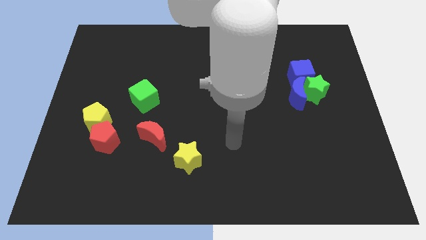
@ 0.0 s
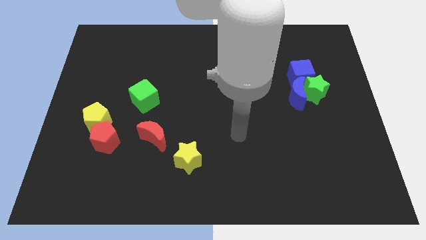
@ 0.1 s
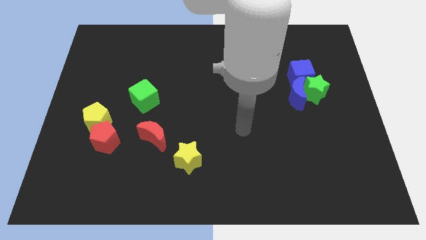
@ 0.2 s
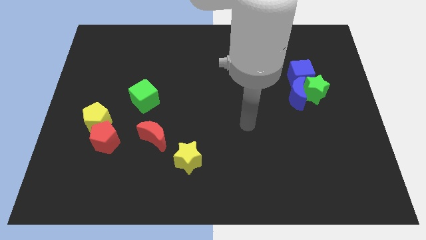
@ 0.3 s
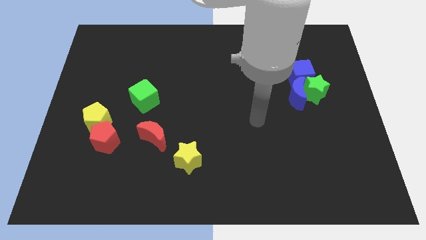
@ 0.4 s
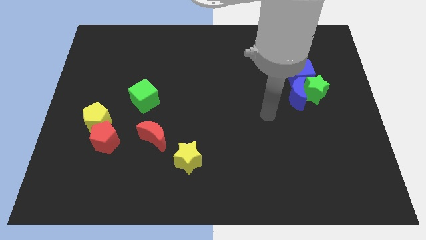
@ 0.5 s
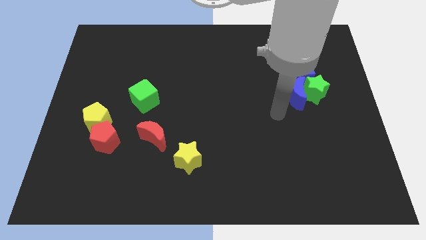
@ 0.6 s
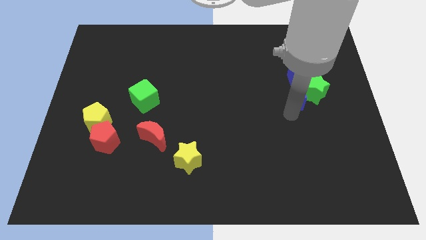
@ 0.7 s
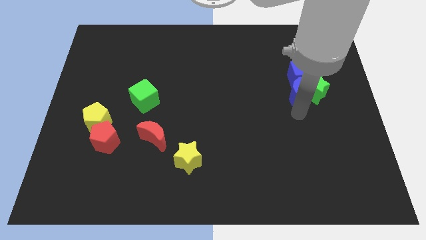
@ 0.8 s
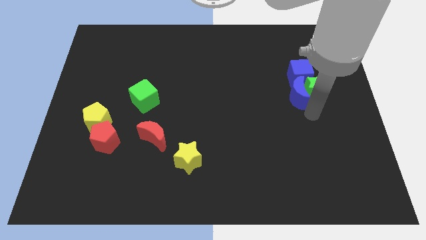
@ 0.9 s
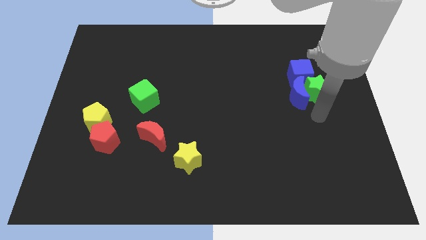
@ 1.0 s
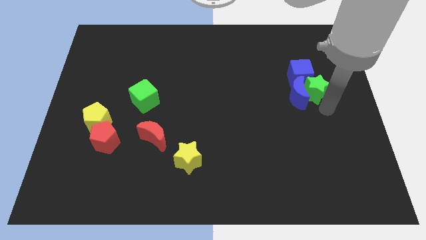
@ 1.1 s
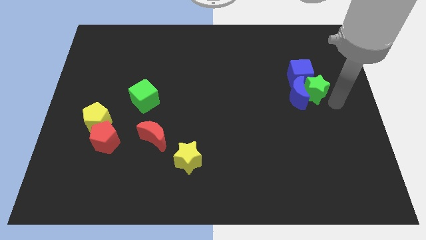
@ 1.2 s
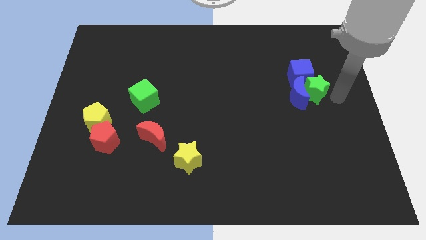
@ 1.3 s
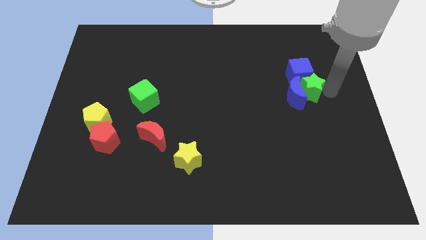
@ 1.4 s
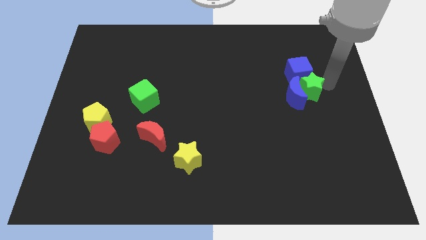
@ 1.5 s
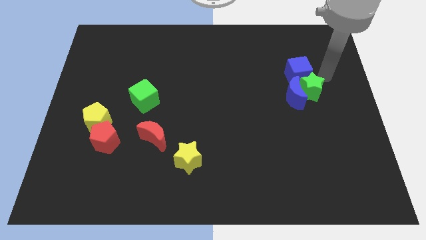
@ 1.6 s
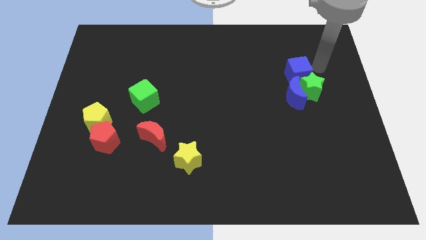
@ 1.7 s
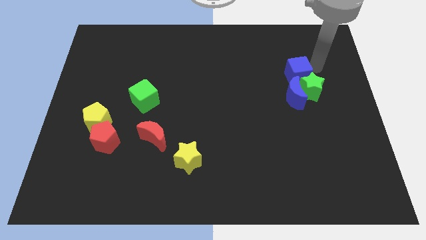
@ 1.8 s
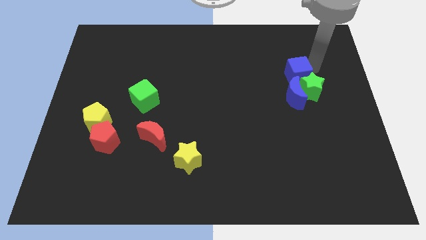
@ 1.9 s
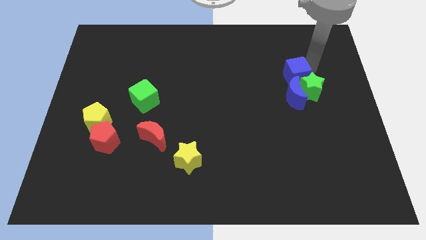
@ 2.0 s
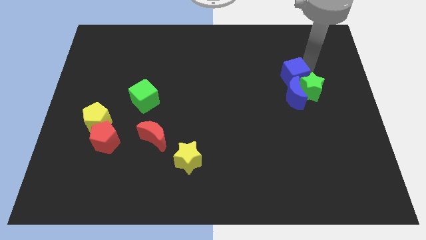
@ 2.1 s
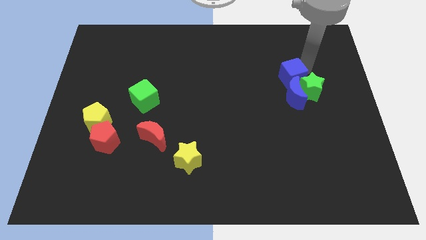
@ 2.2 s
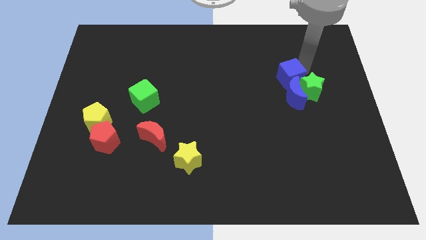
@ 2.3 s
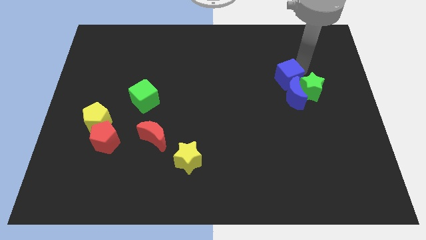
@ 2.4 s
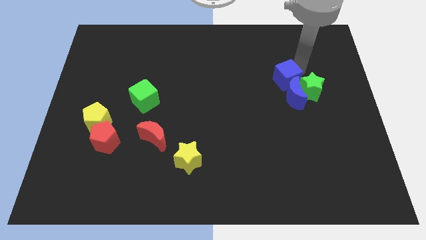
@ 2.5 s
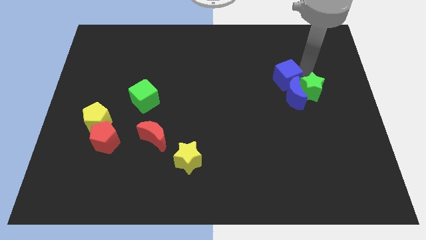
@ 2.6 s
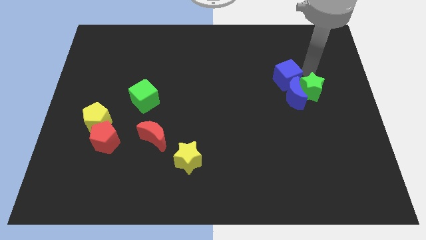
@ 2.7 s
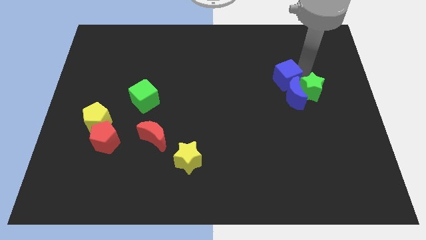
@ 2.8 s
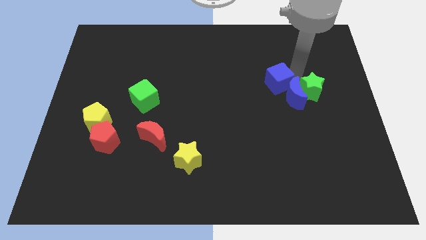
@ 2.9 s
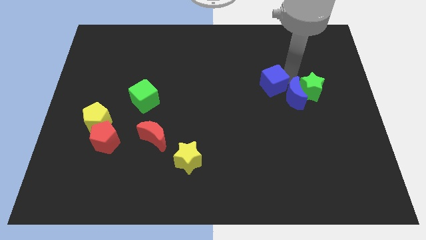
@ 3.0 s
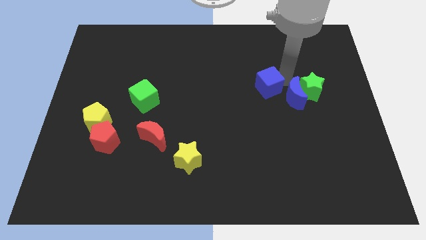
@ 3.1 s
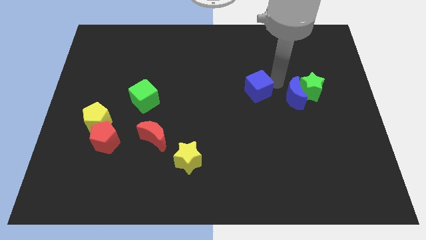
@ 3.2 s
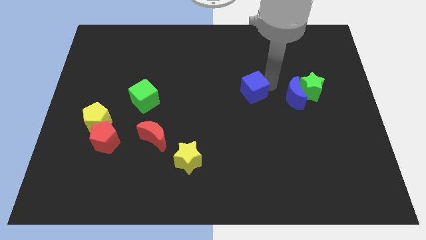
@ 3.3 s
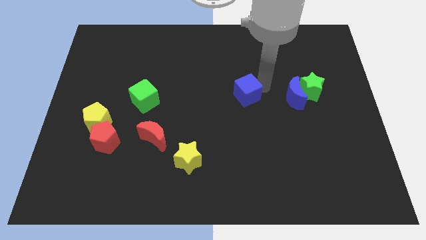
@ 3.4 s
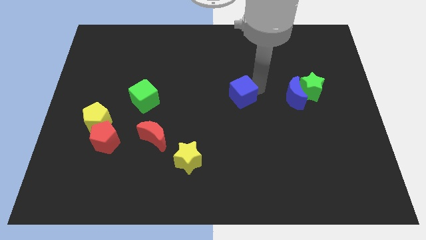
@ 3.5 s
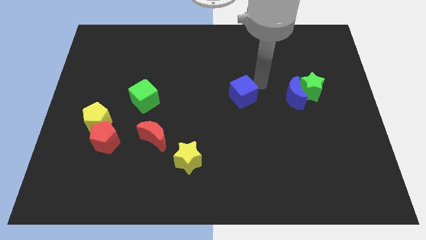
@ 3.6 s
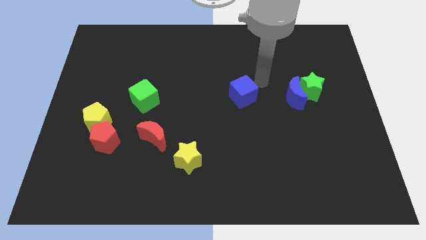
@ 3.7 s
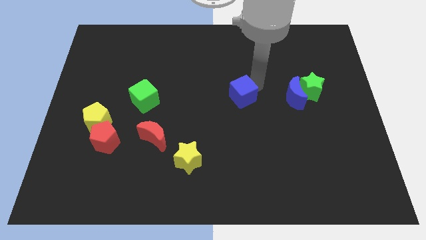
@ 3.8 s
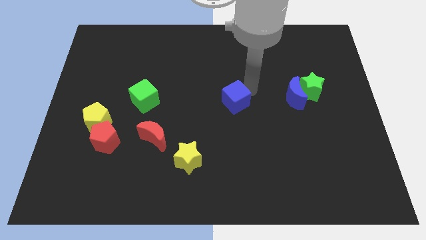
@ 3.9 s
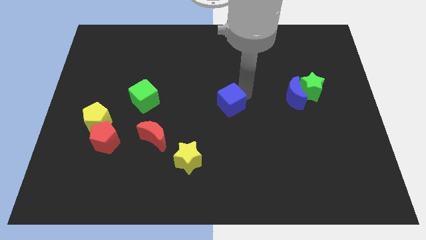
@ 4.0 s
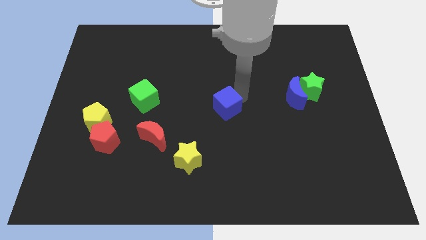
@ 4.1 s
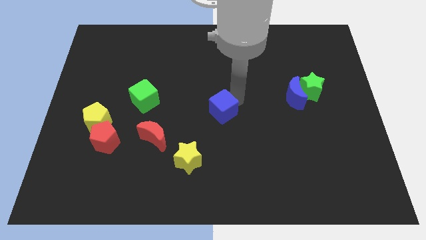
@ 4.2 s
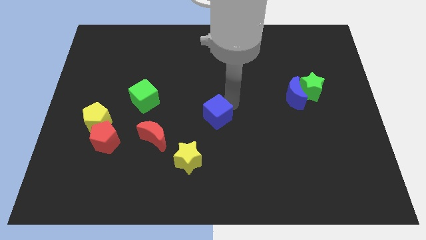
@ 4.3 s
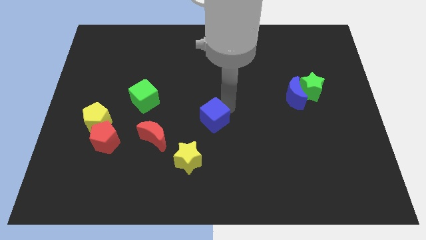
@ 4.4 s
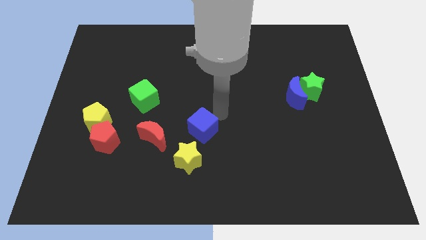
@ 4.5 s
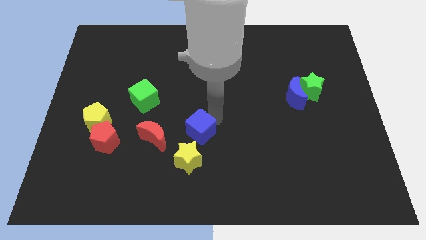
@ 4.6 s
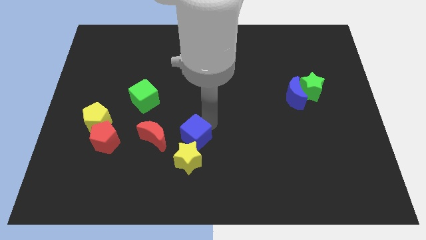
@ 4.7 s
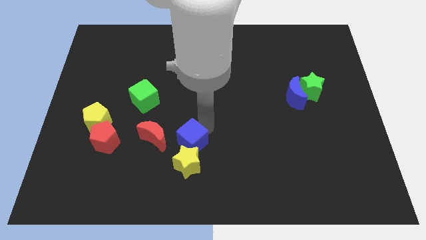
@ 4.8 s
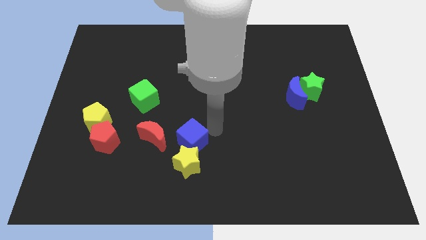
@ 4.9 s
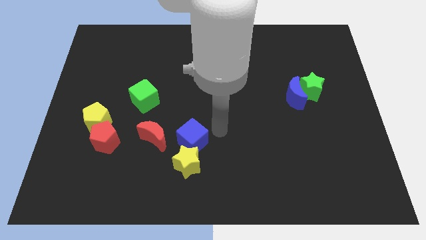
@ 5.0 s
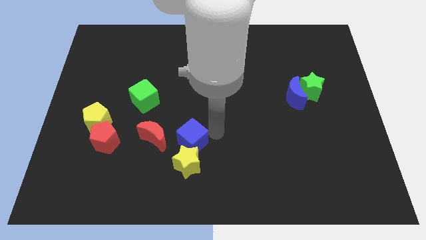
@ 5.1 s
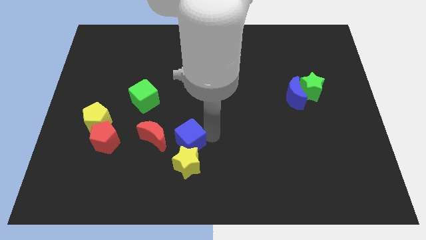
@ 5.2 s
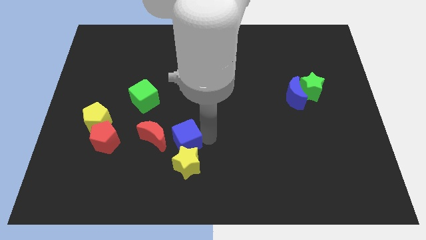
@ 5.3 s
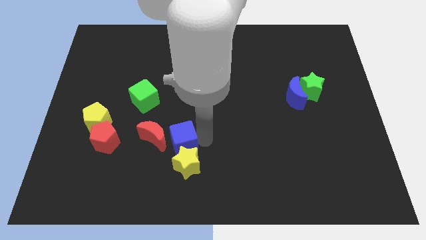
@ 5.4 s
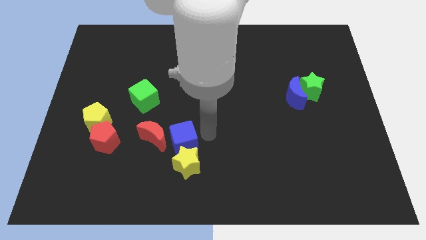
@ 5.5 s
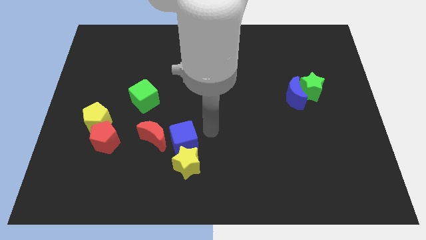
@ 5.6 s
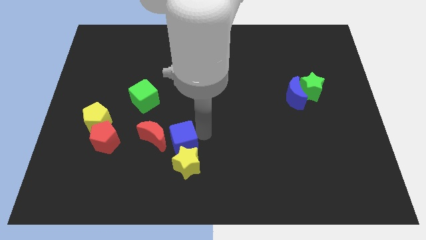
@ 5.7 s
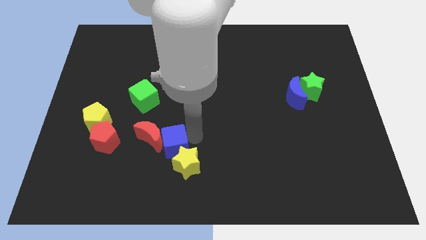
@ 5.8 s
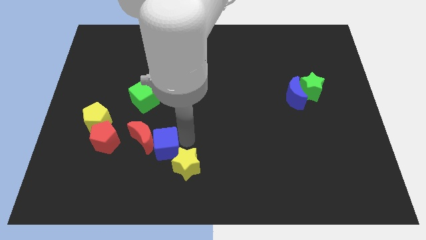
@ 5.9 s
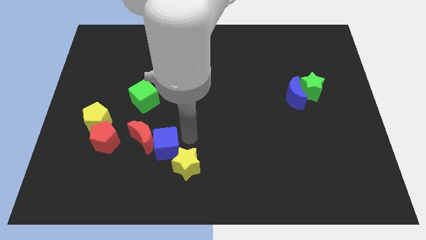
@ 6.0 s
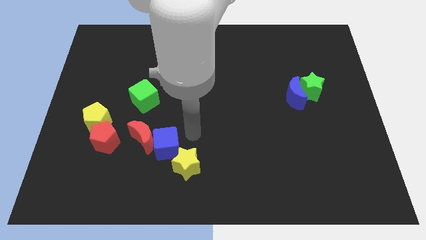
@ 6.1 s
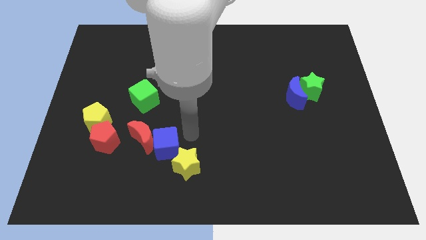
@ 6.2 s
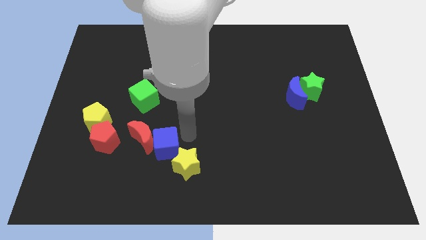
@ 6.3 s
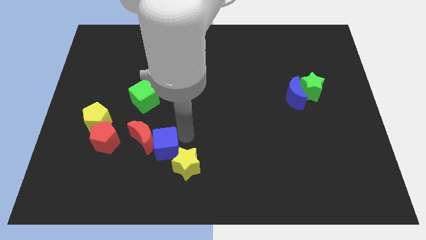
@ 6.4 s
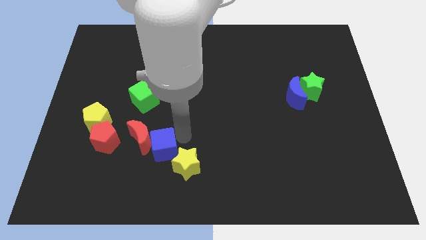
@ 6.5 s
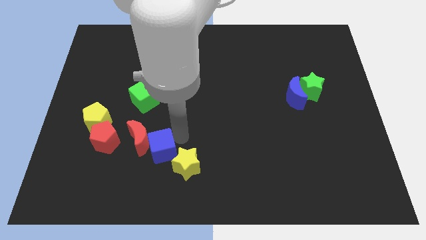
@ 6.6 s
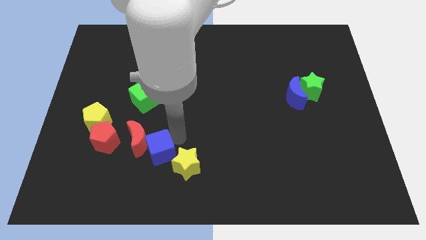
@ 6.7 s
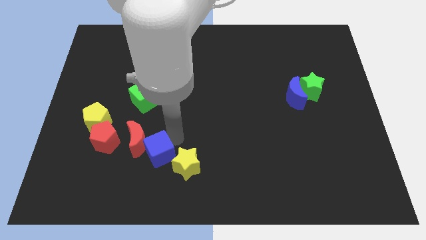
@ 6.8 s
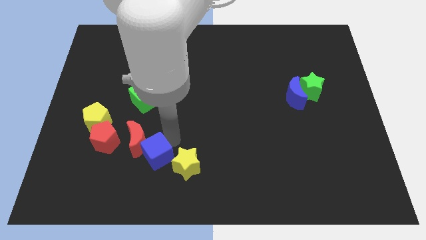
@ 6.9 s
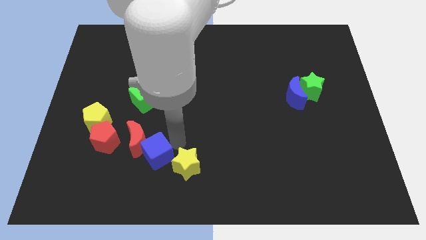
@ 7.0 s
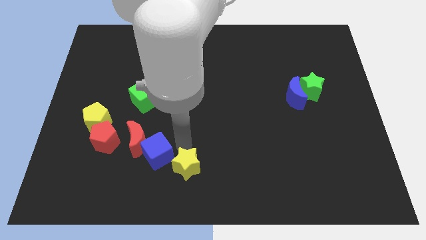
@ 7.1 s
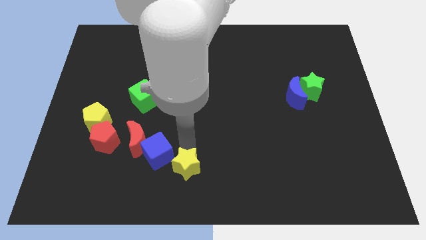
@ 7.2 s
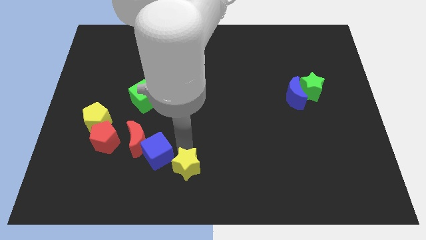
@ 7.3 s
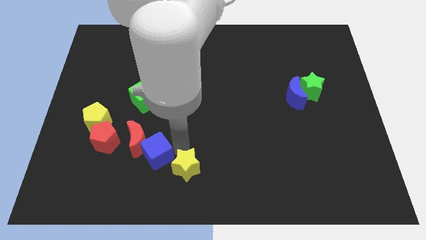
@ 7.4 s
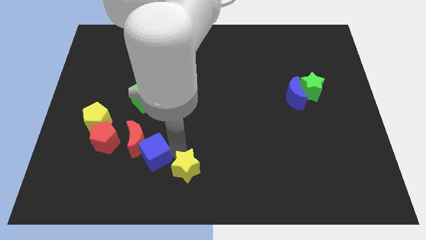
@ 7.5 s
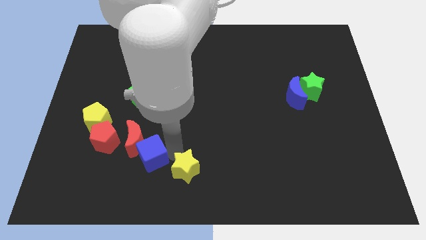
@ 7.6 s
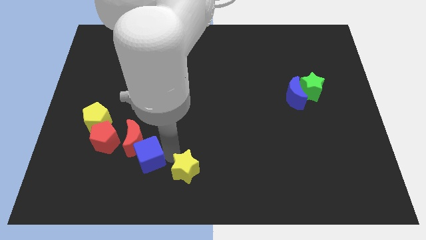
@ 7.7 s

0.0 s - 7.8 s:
put the blue cube to the bottom right side of the red pentagon

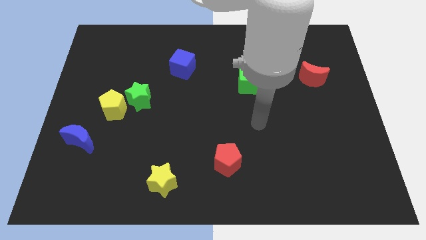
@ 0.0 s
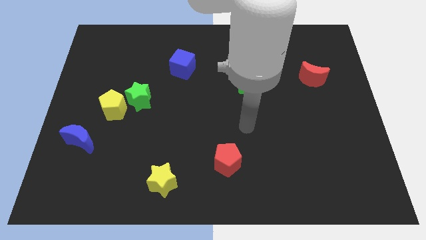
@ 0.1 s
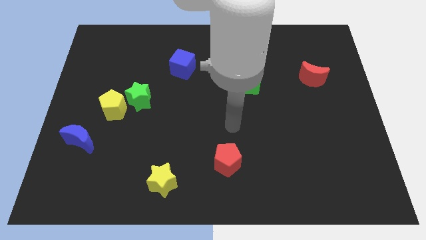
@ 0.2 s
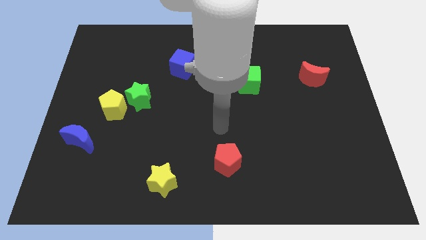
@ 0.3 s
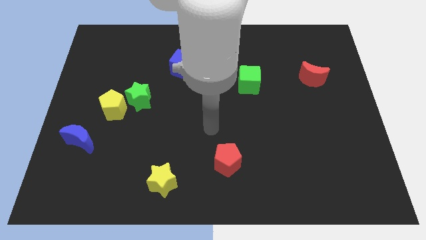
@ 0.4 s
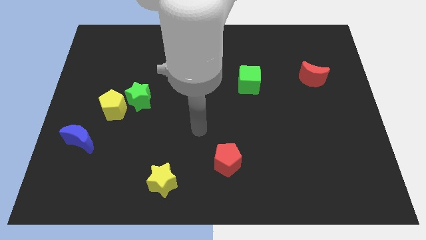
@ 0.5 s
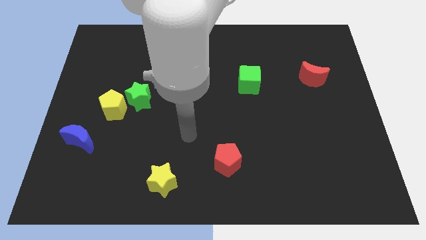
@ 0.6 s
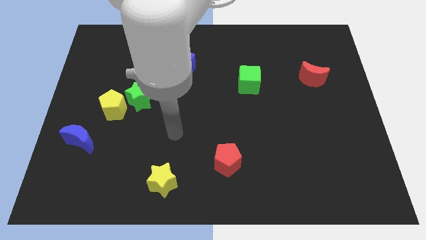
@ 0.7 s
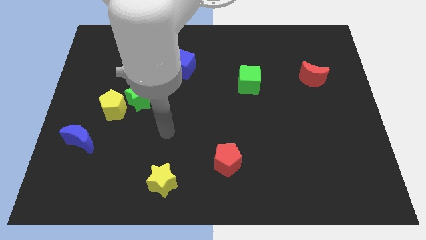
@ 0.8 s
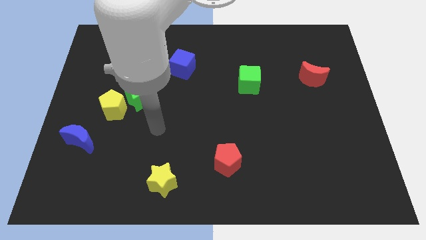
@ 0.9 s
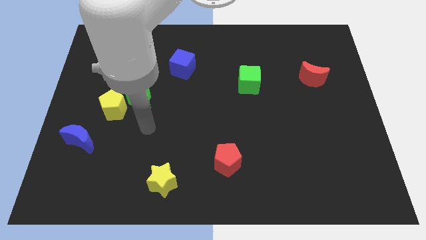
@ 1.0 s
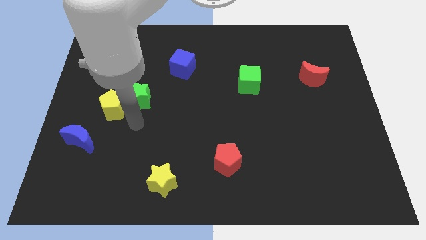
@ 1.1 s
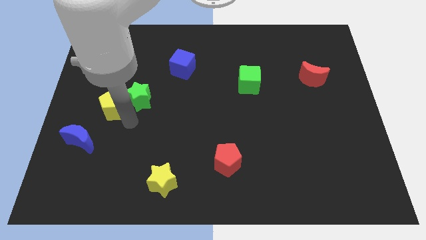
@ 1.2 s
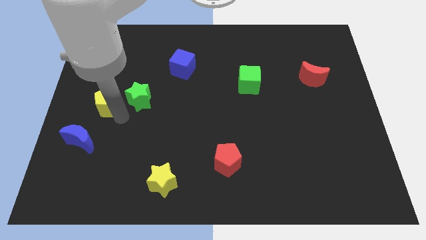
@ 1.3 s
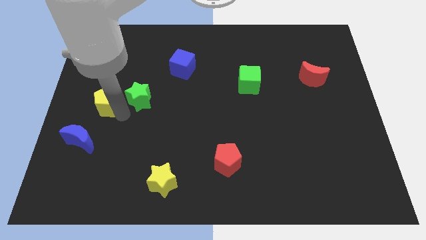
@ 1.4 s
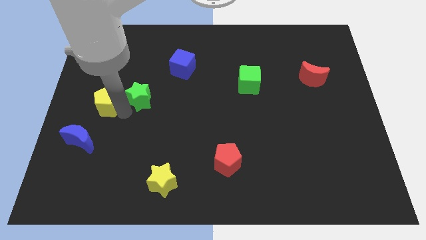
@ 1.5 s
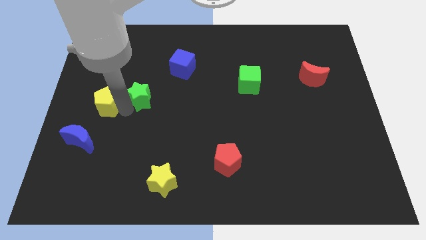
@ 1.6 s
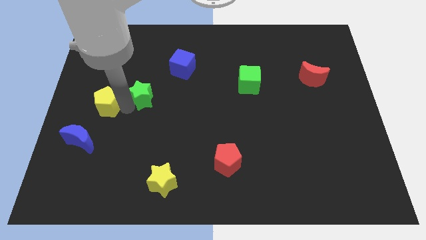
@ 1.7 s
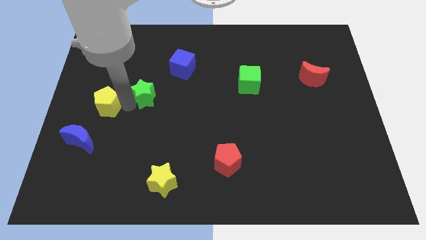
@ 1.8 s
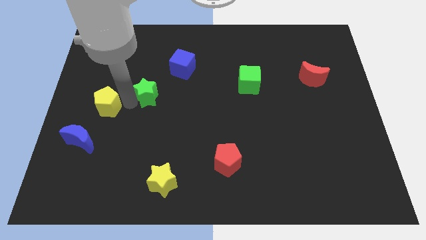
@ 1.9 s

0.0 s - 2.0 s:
put the green star diagonally down and to the left of the blue cube
